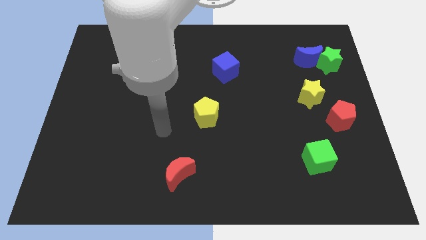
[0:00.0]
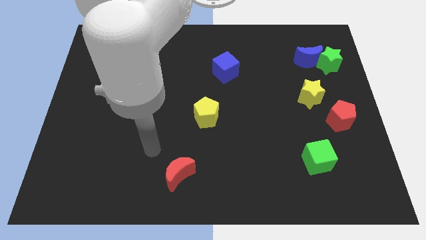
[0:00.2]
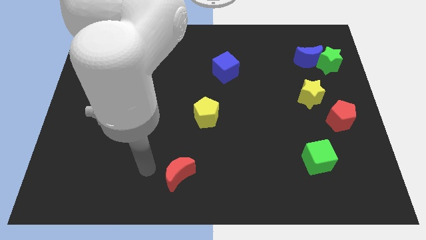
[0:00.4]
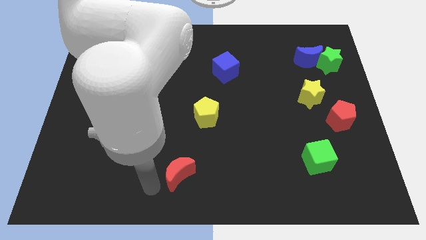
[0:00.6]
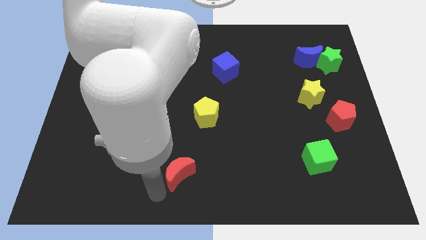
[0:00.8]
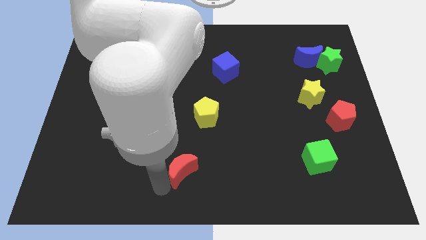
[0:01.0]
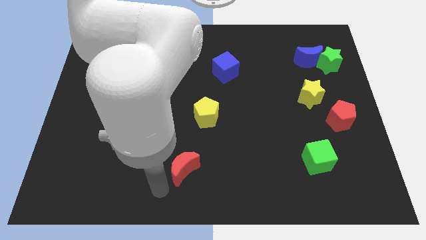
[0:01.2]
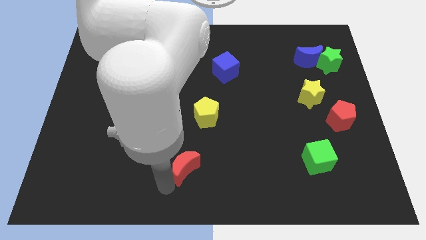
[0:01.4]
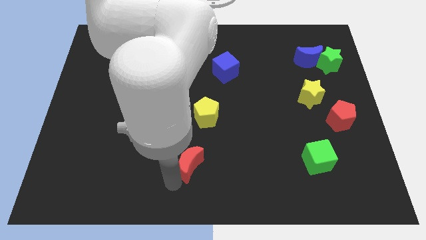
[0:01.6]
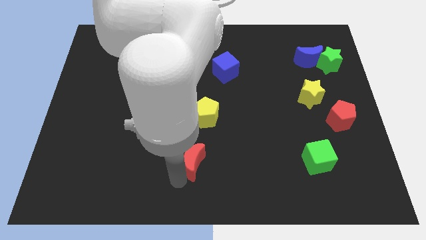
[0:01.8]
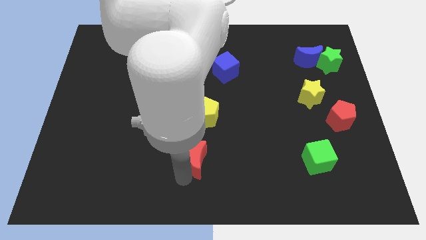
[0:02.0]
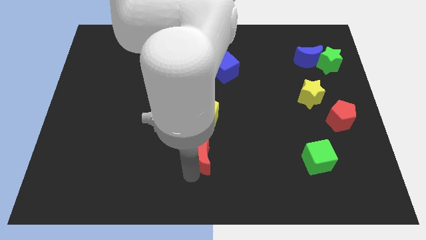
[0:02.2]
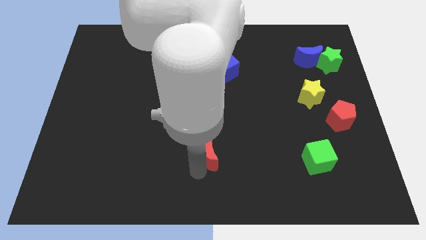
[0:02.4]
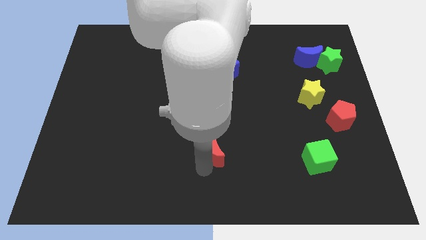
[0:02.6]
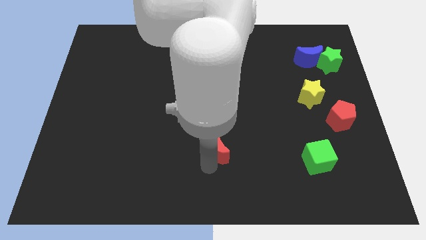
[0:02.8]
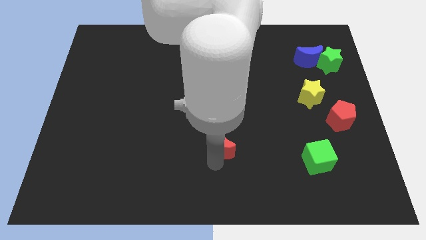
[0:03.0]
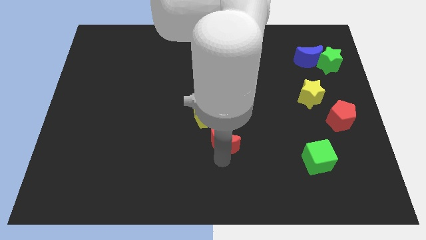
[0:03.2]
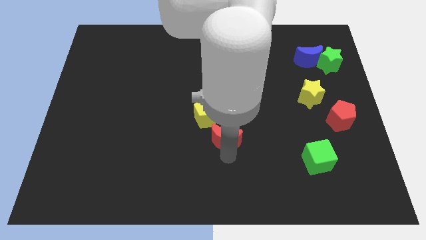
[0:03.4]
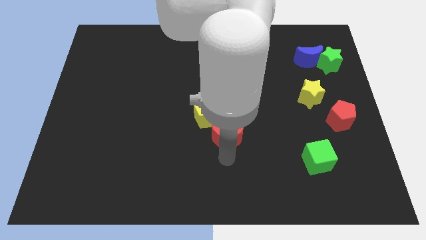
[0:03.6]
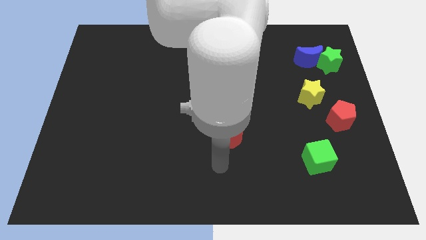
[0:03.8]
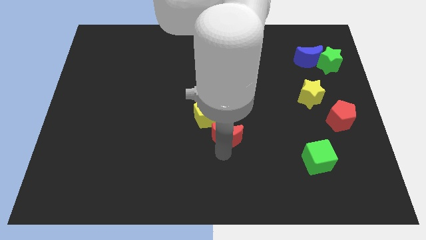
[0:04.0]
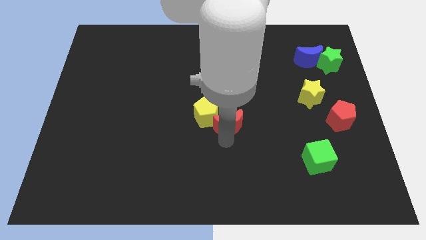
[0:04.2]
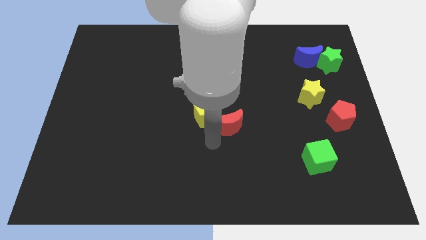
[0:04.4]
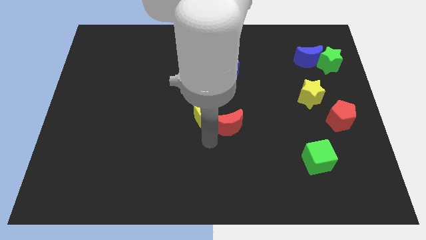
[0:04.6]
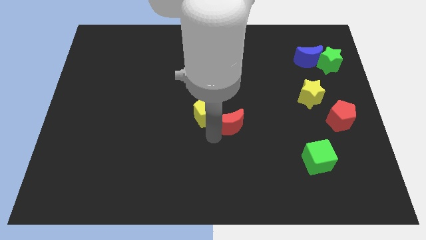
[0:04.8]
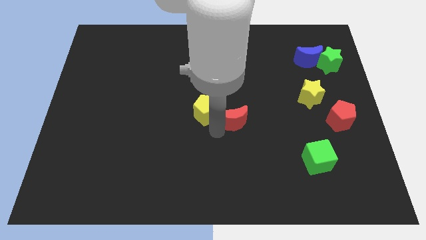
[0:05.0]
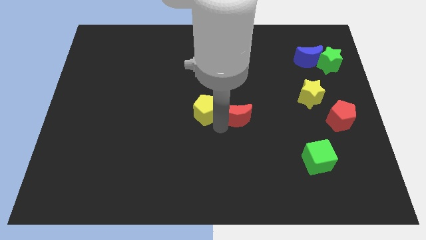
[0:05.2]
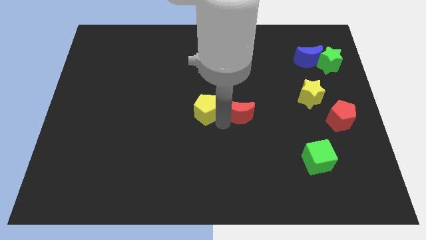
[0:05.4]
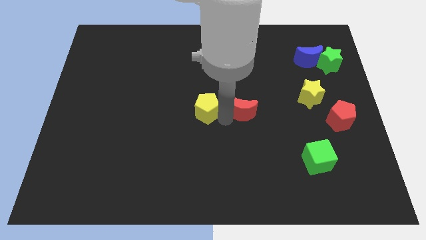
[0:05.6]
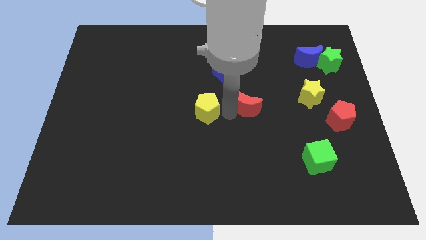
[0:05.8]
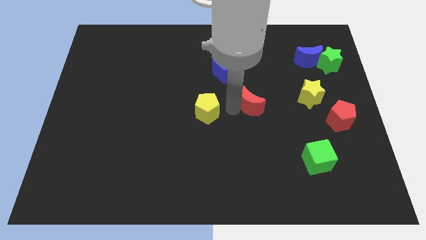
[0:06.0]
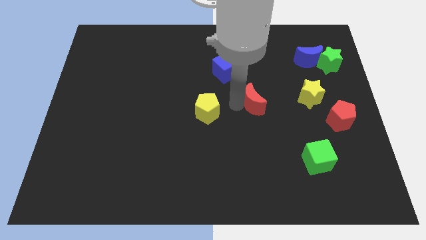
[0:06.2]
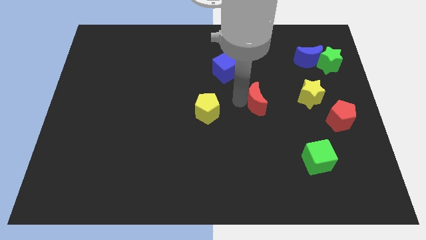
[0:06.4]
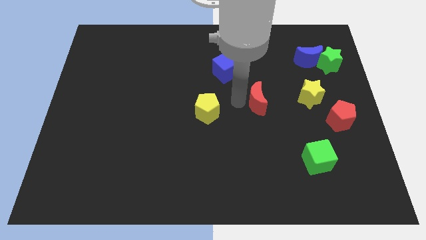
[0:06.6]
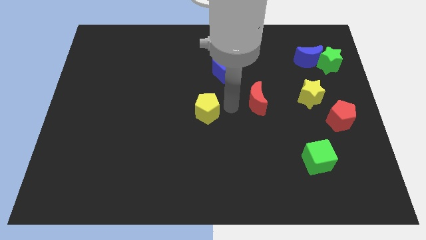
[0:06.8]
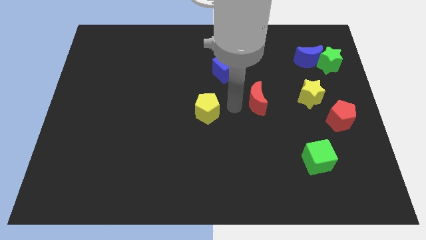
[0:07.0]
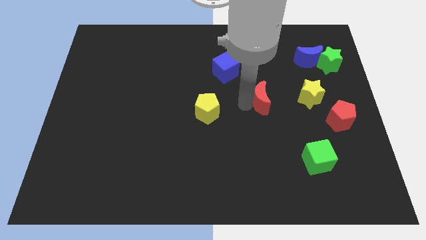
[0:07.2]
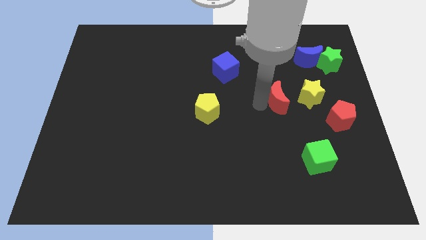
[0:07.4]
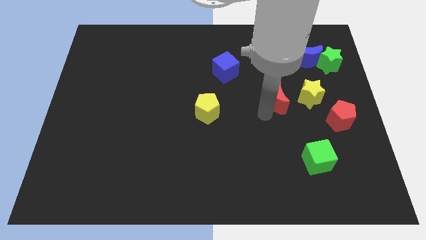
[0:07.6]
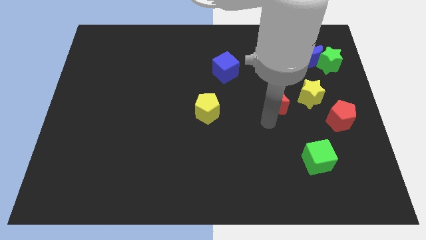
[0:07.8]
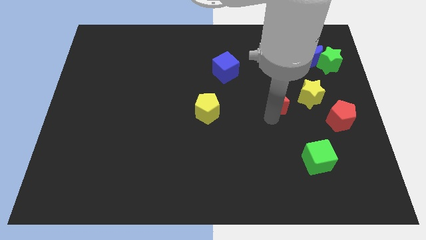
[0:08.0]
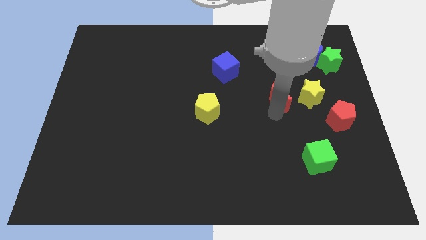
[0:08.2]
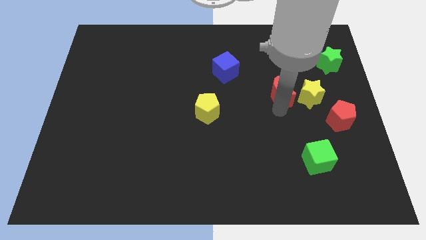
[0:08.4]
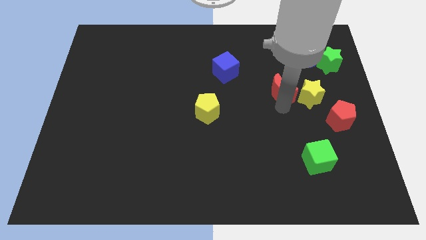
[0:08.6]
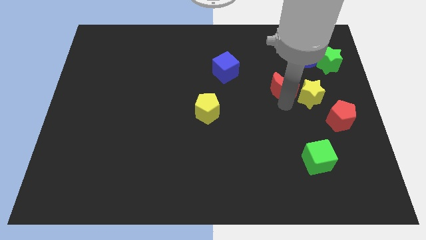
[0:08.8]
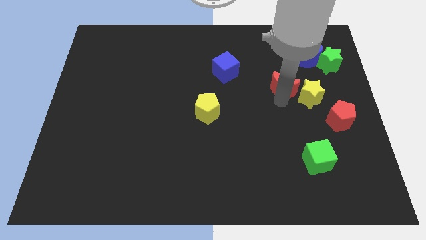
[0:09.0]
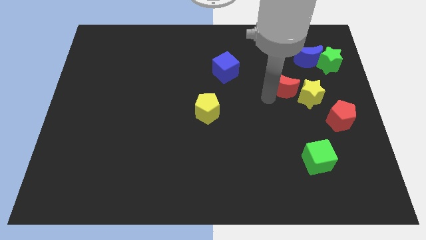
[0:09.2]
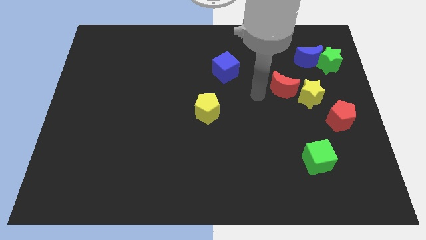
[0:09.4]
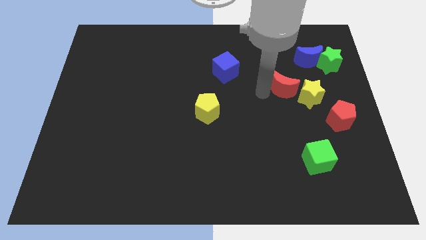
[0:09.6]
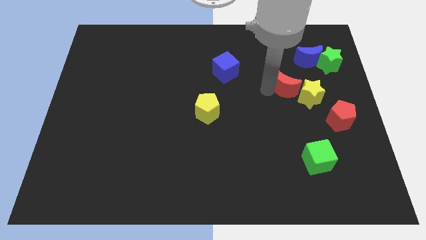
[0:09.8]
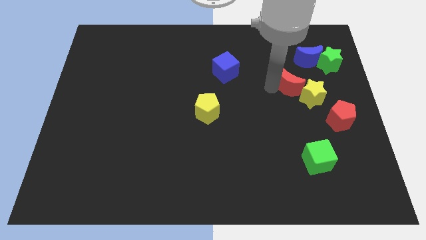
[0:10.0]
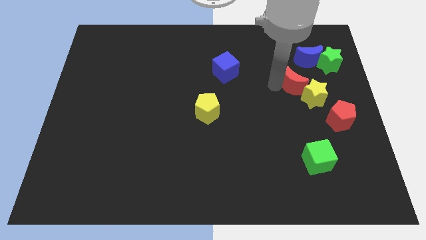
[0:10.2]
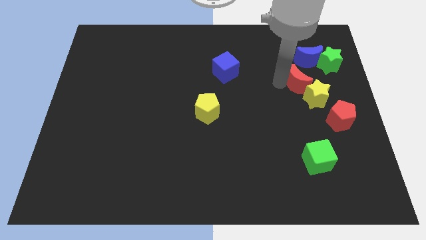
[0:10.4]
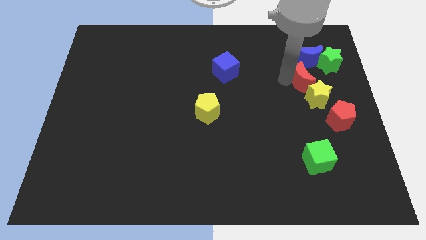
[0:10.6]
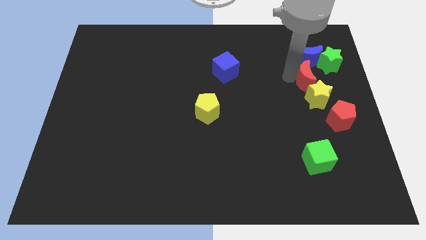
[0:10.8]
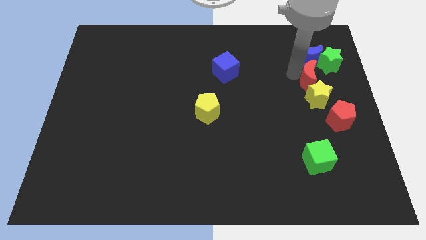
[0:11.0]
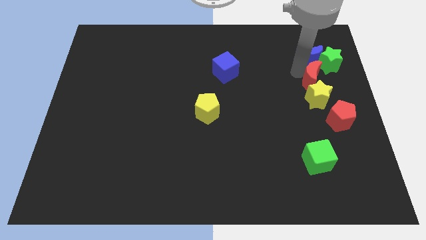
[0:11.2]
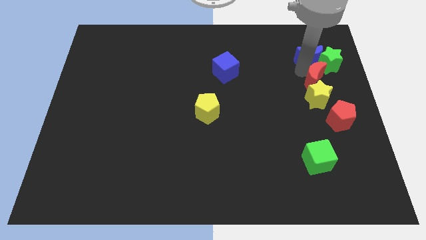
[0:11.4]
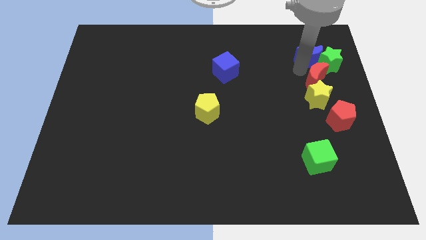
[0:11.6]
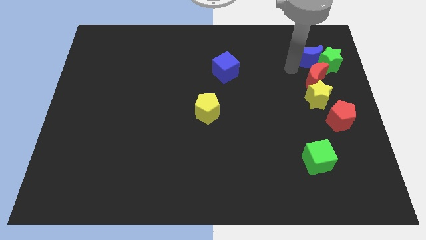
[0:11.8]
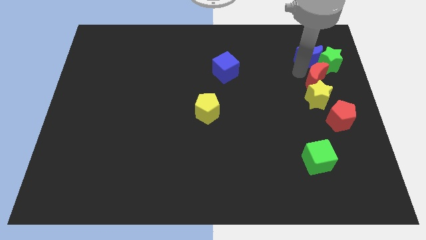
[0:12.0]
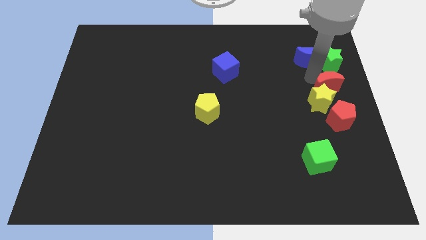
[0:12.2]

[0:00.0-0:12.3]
move the red moon to the center right

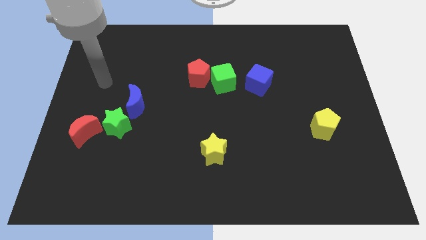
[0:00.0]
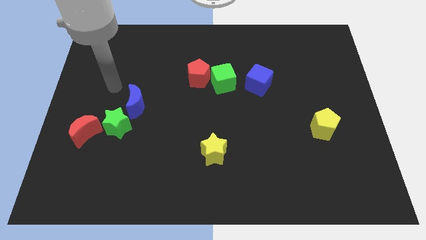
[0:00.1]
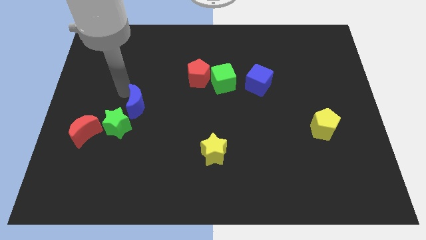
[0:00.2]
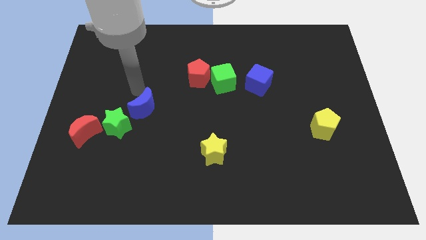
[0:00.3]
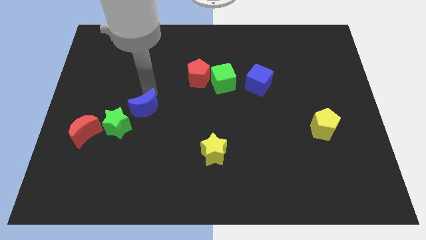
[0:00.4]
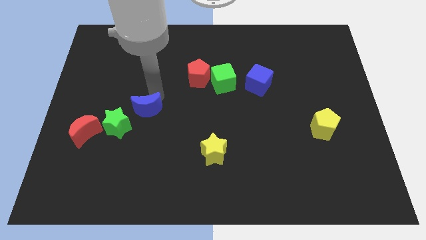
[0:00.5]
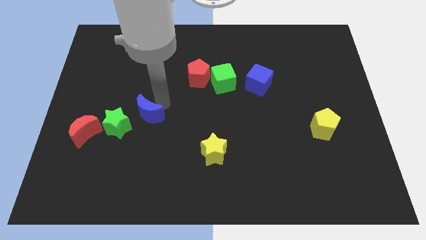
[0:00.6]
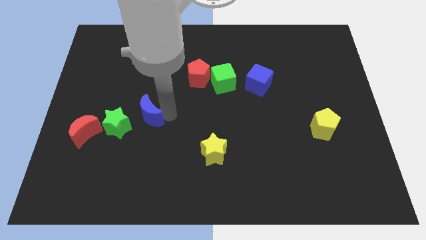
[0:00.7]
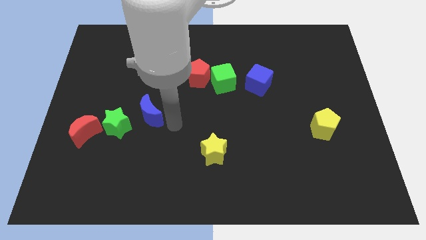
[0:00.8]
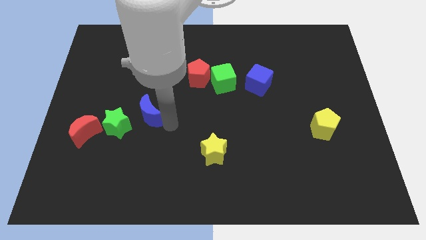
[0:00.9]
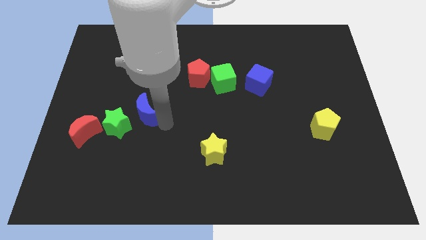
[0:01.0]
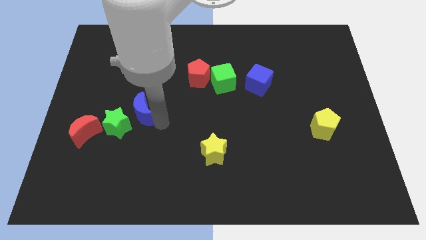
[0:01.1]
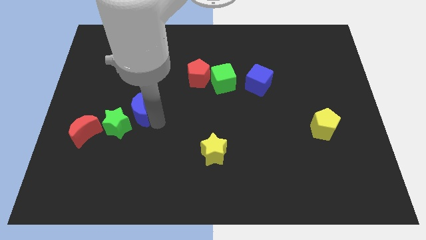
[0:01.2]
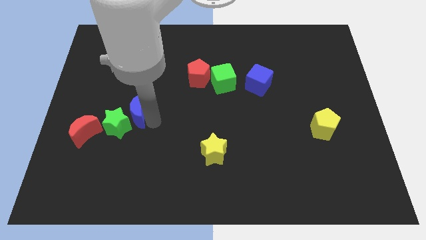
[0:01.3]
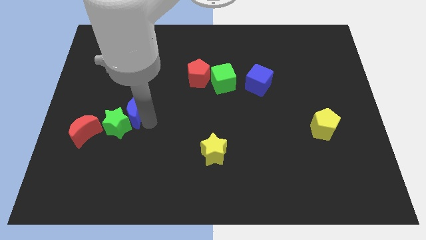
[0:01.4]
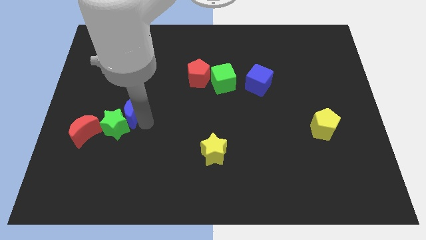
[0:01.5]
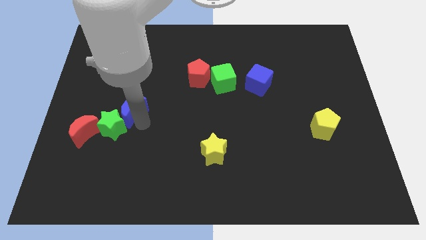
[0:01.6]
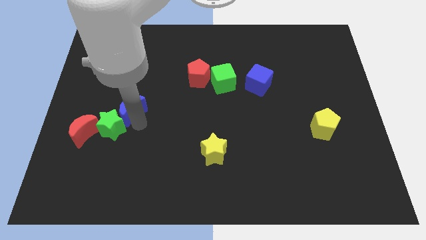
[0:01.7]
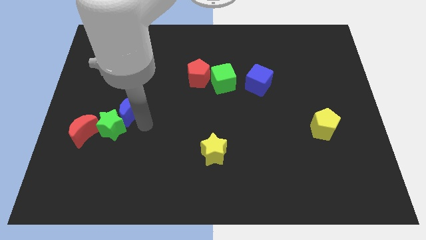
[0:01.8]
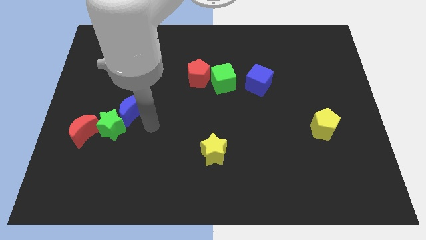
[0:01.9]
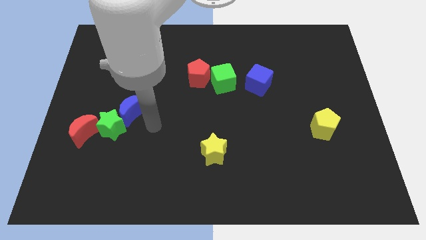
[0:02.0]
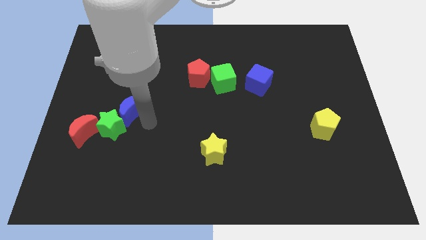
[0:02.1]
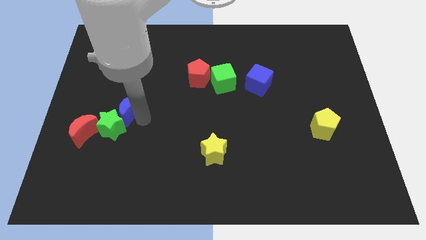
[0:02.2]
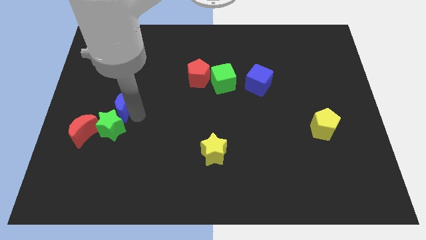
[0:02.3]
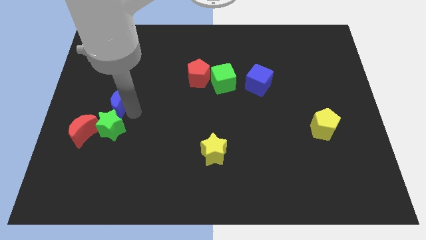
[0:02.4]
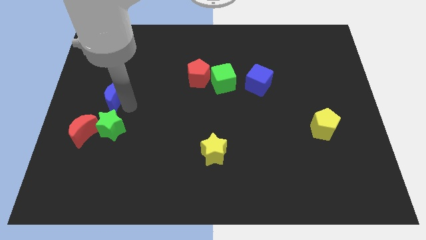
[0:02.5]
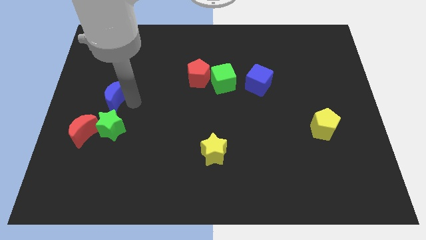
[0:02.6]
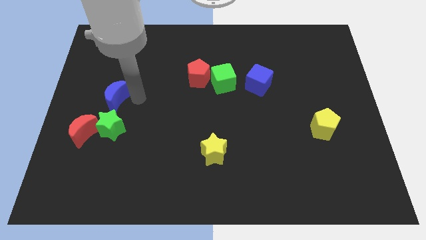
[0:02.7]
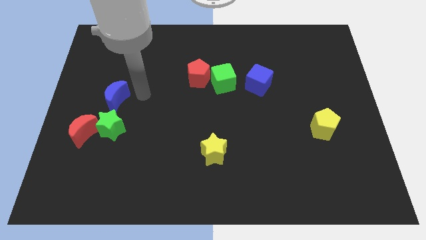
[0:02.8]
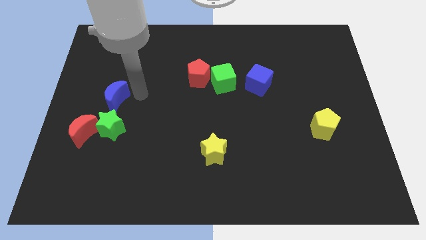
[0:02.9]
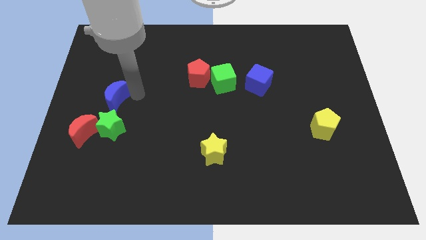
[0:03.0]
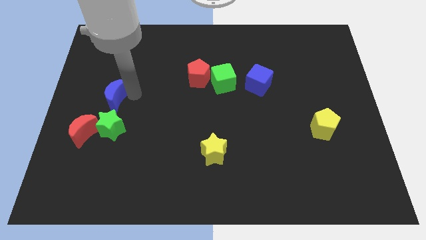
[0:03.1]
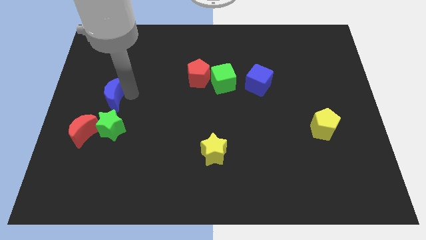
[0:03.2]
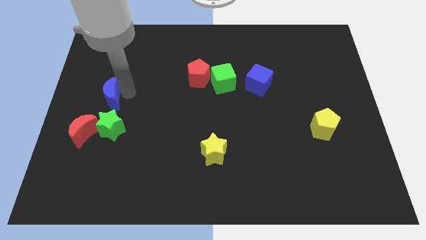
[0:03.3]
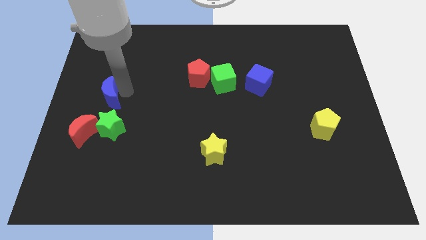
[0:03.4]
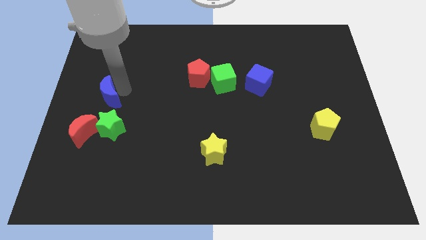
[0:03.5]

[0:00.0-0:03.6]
move the blue moon to the left side of the board
